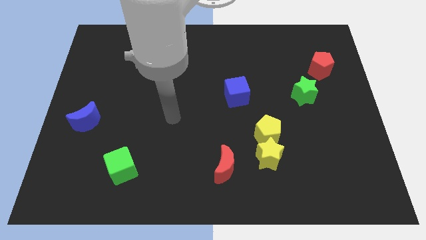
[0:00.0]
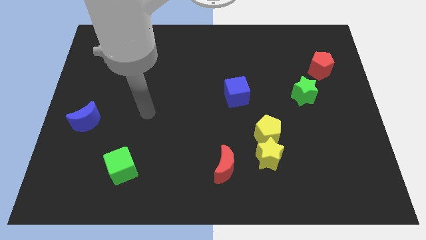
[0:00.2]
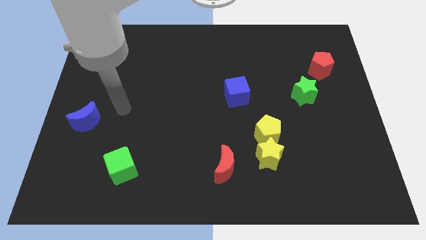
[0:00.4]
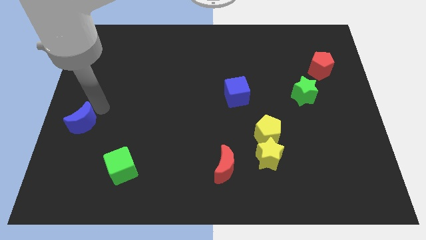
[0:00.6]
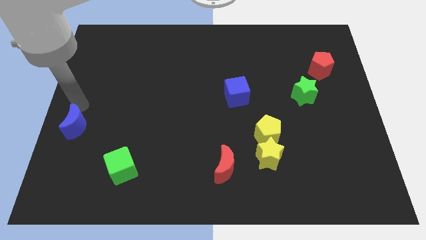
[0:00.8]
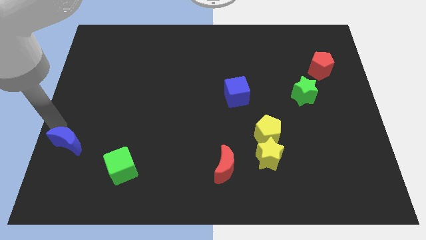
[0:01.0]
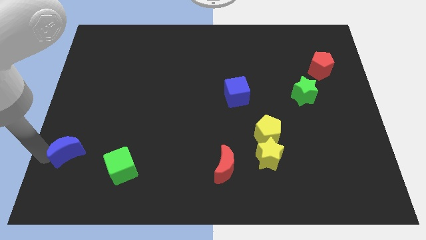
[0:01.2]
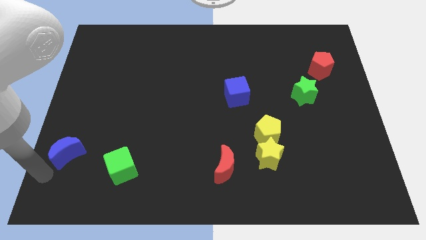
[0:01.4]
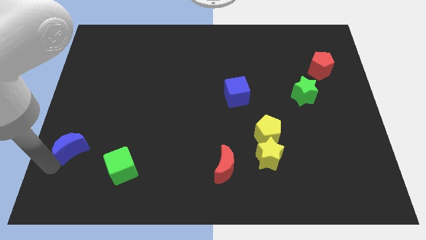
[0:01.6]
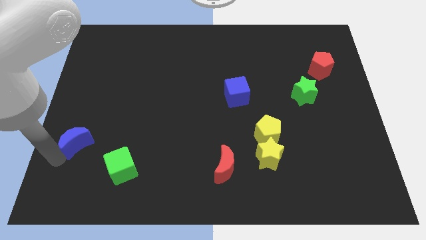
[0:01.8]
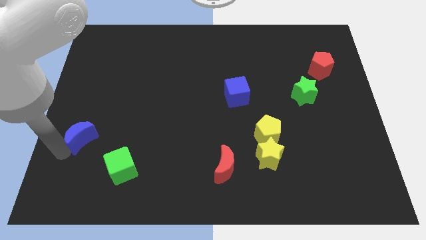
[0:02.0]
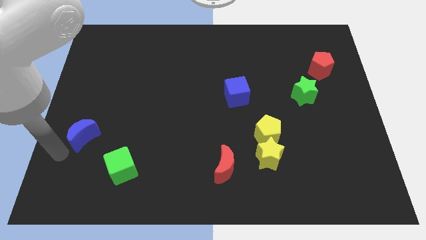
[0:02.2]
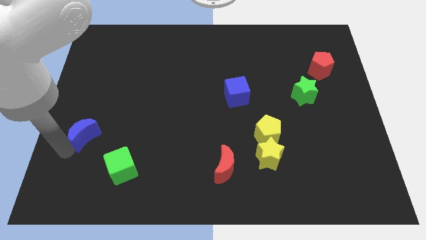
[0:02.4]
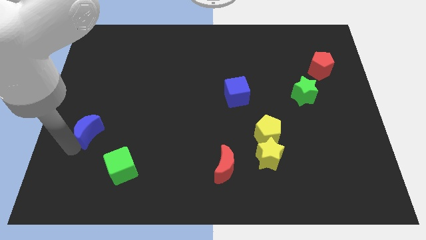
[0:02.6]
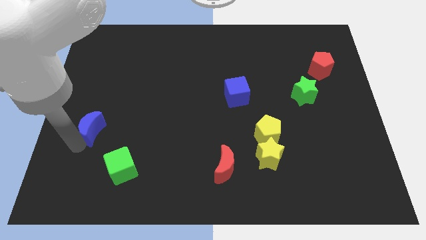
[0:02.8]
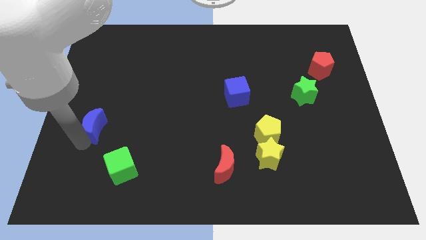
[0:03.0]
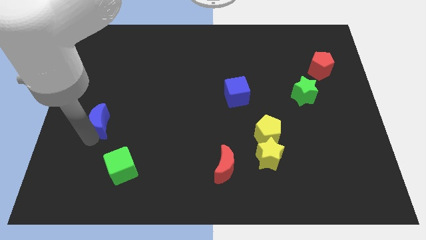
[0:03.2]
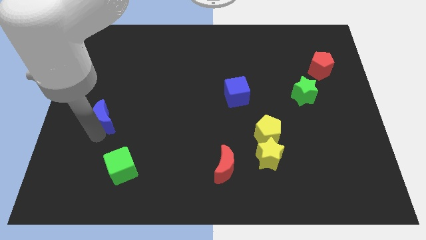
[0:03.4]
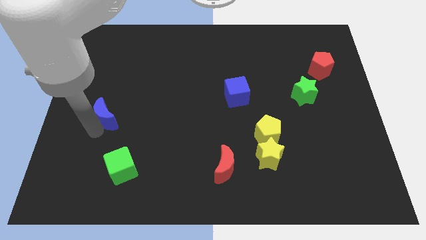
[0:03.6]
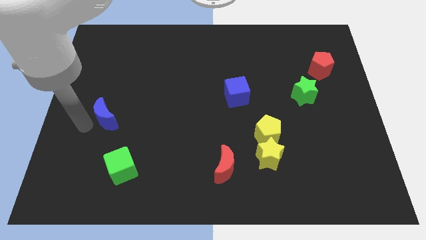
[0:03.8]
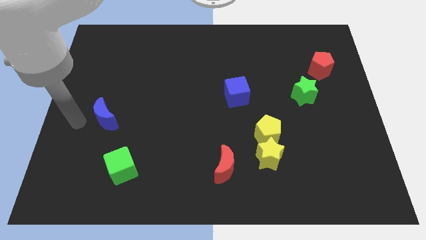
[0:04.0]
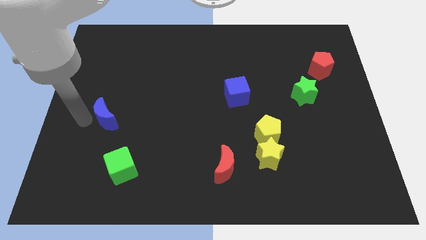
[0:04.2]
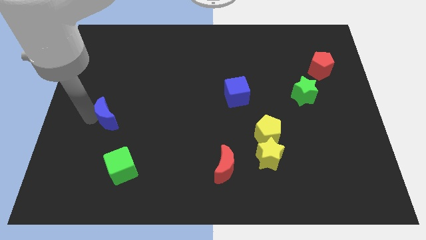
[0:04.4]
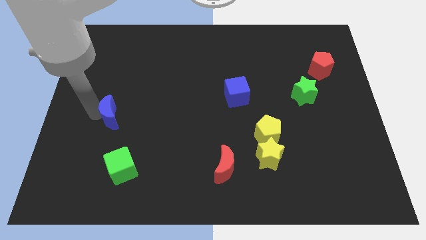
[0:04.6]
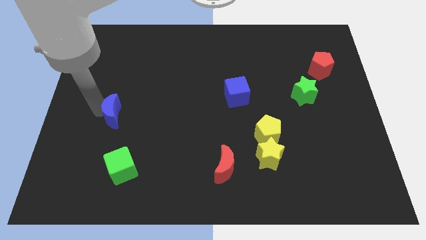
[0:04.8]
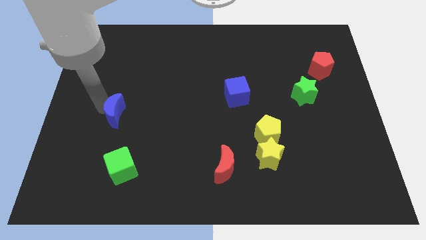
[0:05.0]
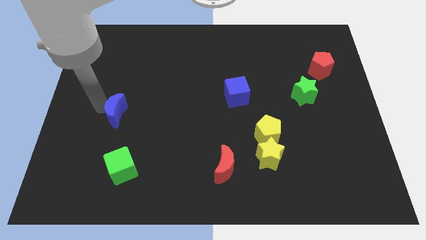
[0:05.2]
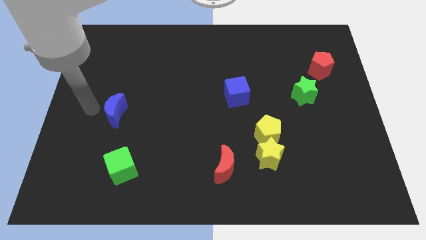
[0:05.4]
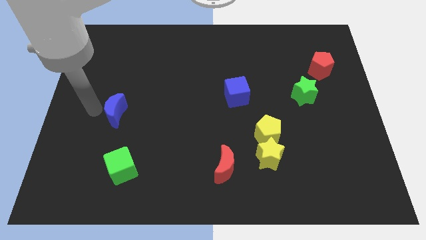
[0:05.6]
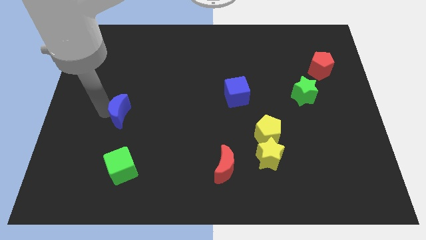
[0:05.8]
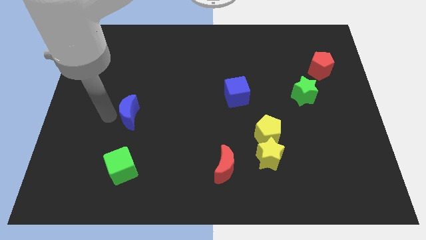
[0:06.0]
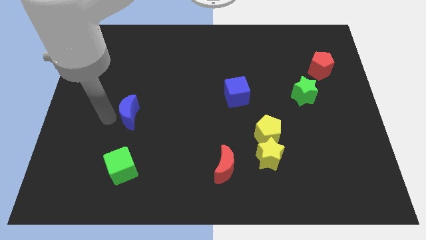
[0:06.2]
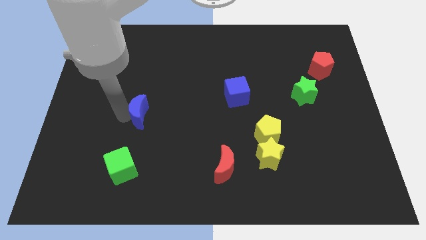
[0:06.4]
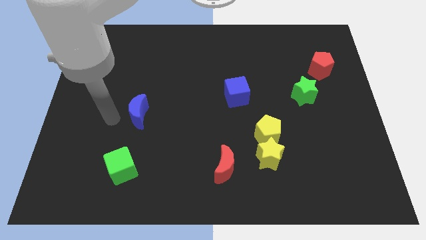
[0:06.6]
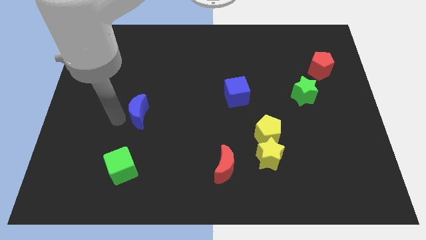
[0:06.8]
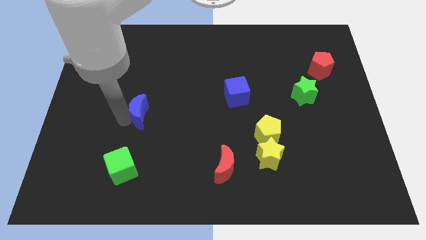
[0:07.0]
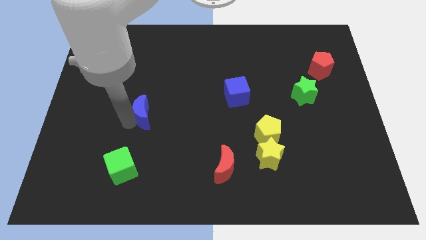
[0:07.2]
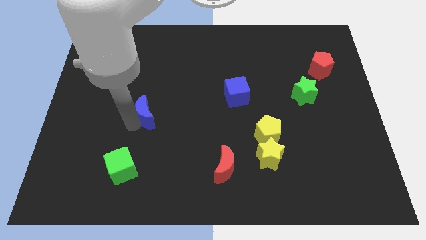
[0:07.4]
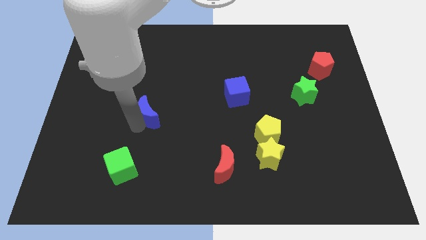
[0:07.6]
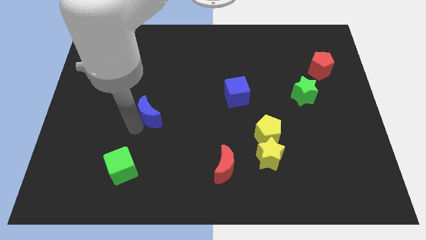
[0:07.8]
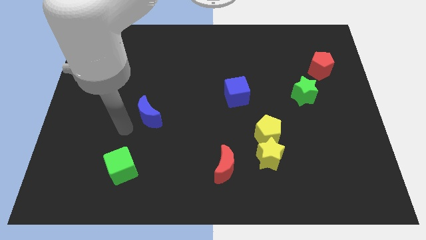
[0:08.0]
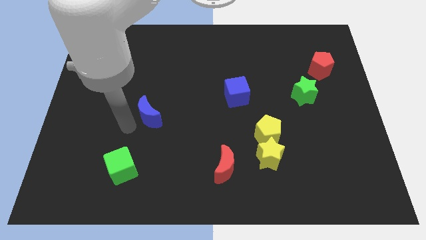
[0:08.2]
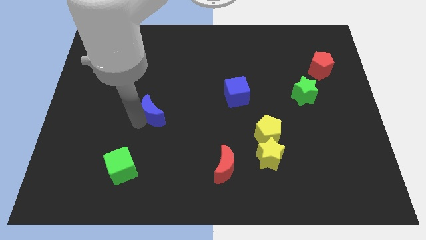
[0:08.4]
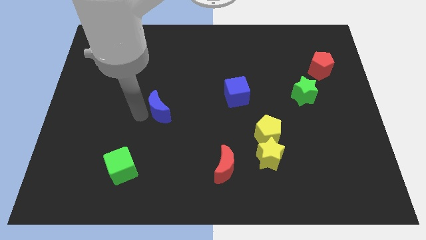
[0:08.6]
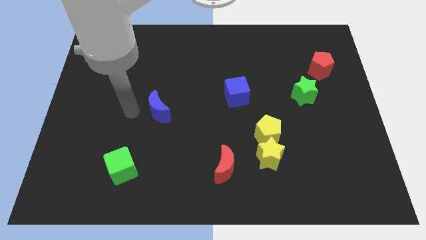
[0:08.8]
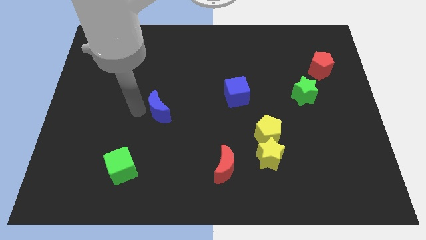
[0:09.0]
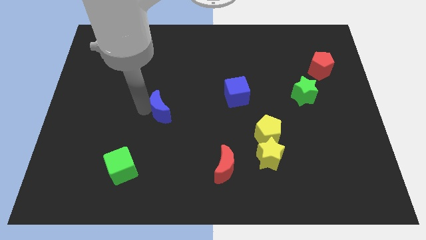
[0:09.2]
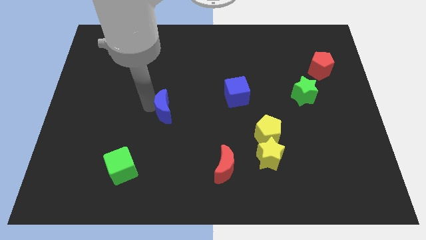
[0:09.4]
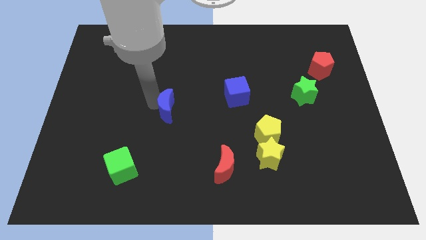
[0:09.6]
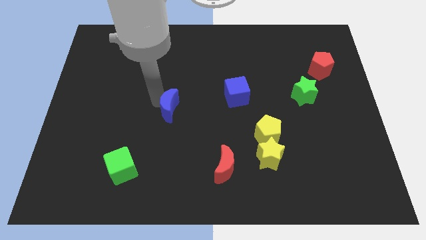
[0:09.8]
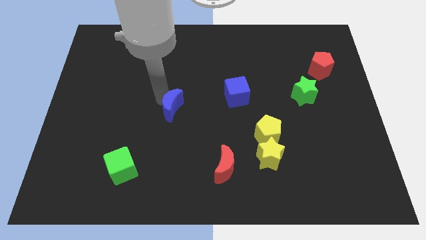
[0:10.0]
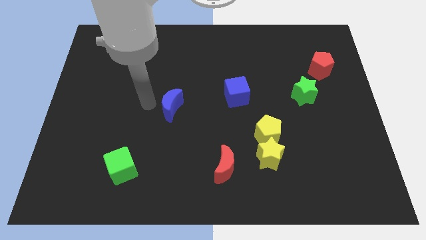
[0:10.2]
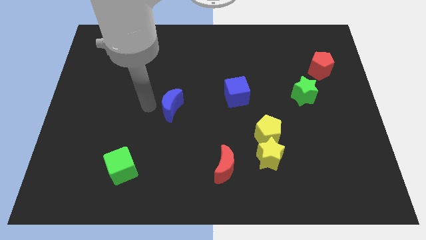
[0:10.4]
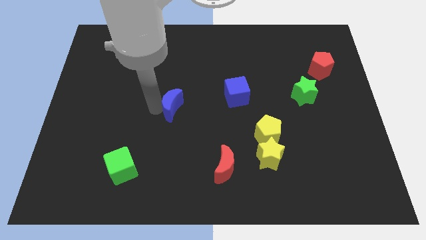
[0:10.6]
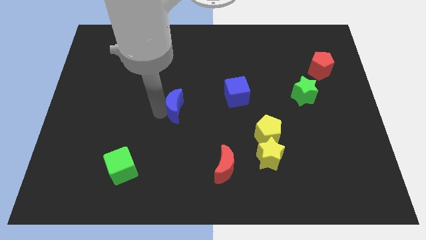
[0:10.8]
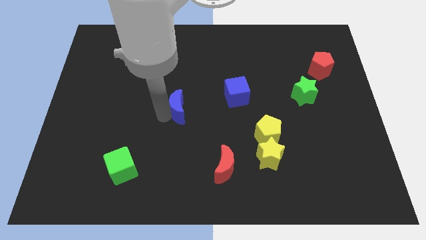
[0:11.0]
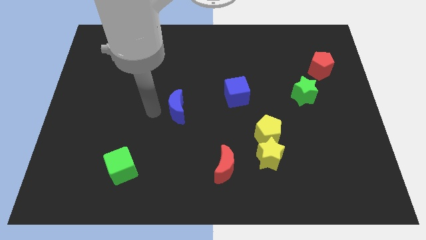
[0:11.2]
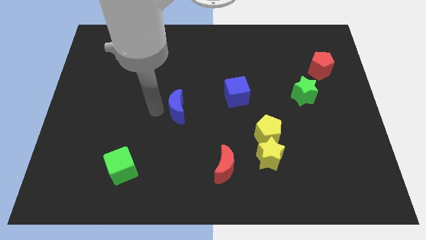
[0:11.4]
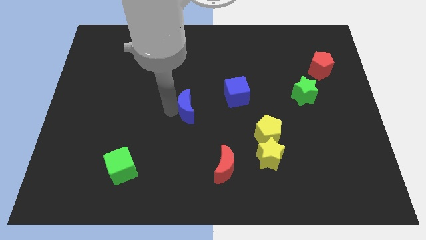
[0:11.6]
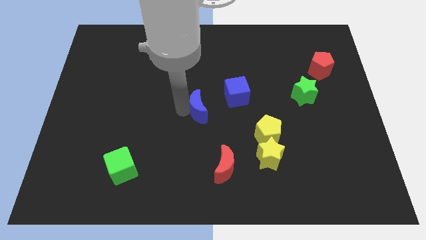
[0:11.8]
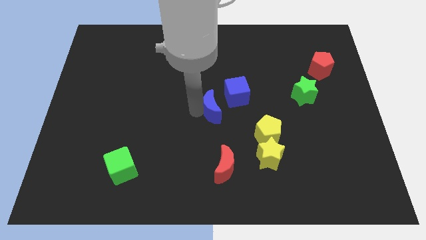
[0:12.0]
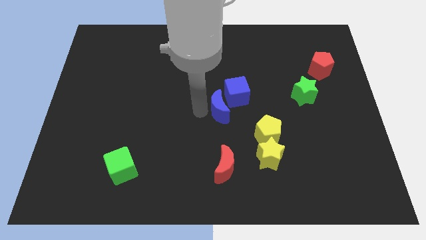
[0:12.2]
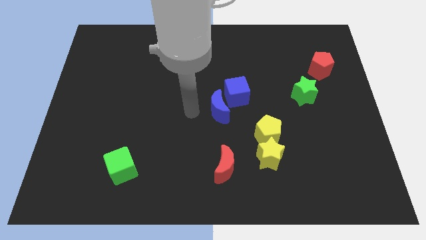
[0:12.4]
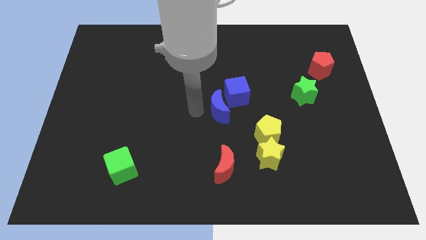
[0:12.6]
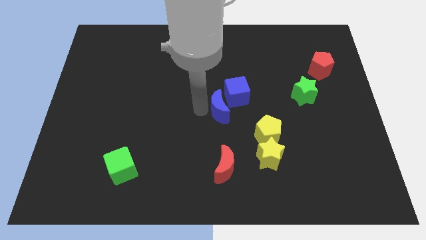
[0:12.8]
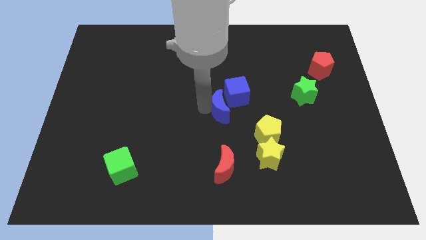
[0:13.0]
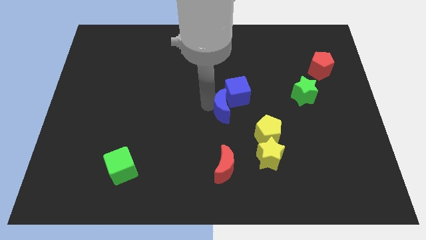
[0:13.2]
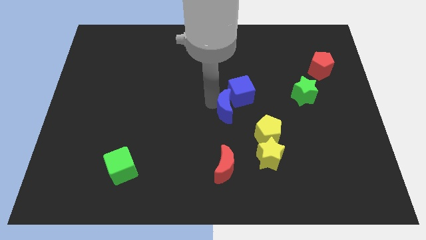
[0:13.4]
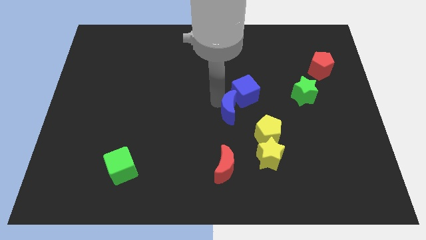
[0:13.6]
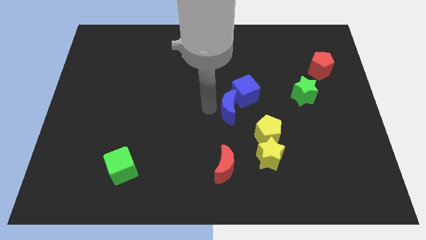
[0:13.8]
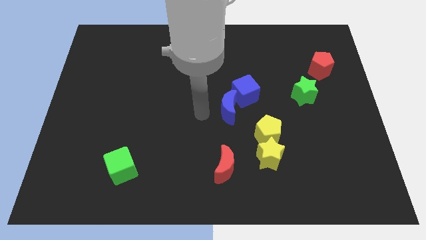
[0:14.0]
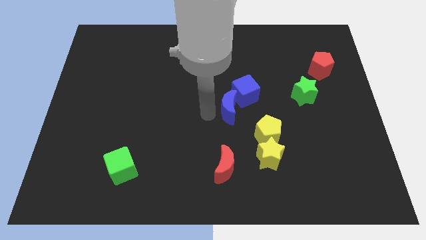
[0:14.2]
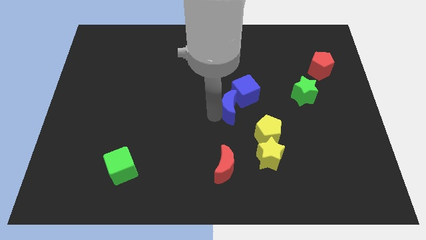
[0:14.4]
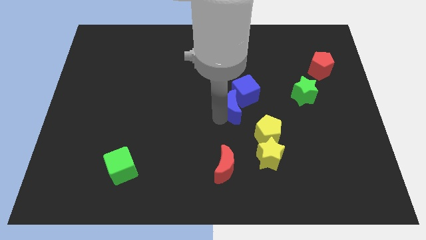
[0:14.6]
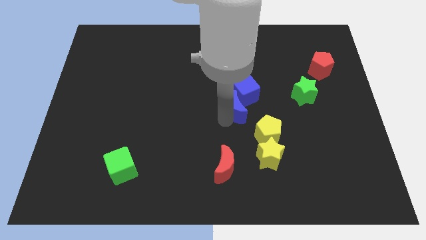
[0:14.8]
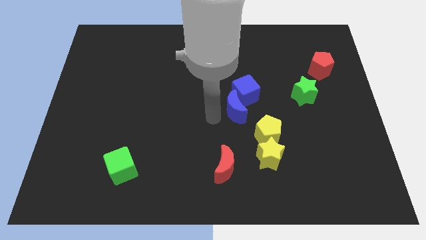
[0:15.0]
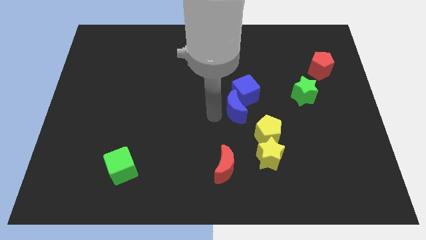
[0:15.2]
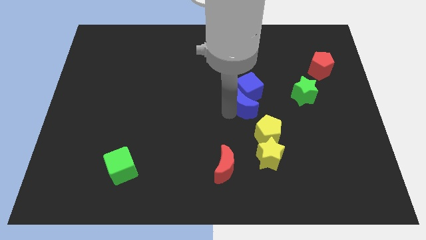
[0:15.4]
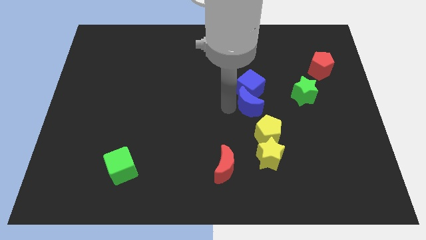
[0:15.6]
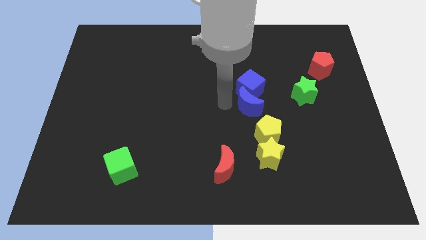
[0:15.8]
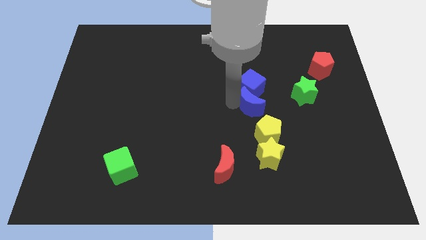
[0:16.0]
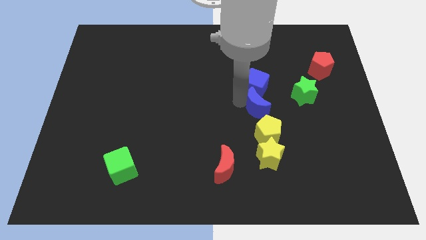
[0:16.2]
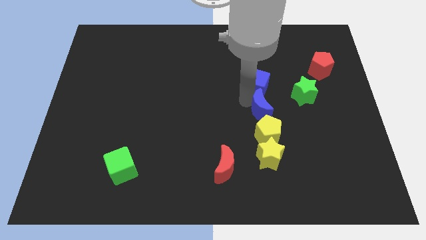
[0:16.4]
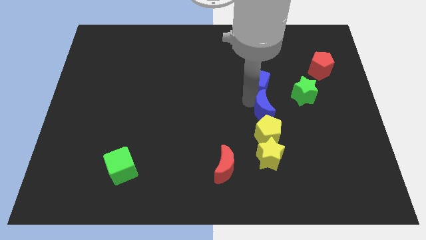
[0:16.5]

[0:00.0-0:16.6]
put the blue moon to the bottom left side of the green star
